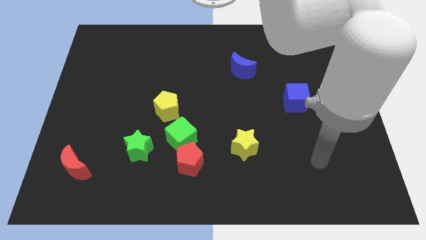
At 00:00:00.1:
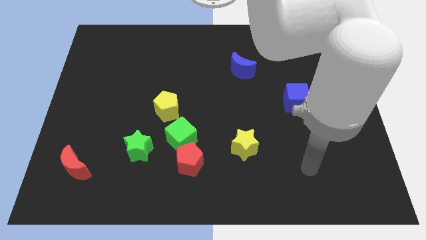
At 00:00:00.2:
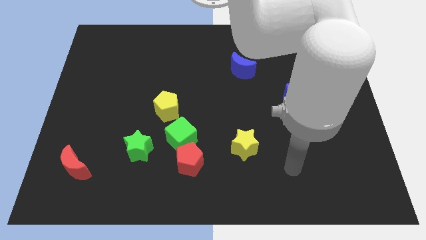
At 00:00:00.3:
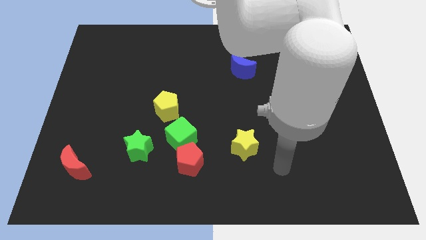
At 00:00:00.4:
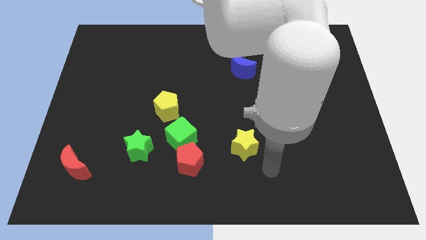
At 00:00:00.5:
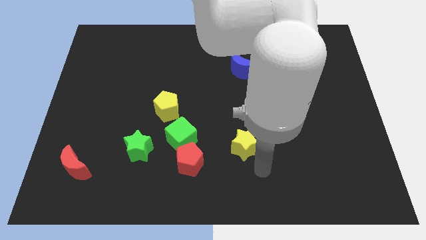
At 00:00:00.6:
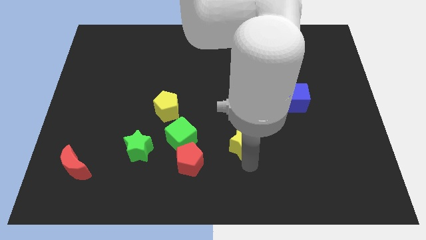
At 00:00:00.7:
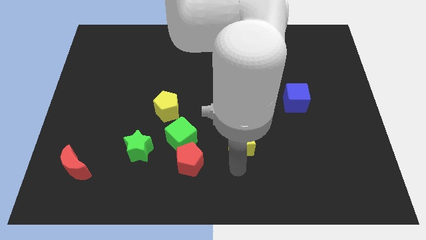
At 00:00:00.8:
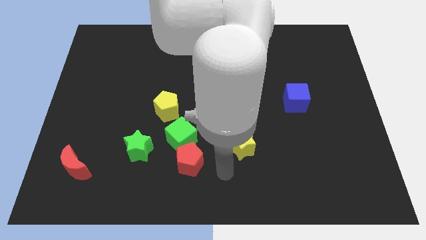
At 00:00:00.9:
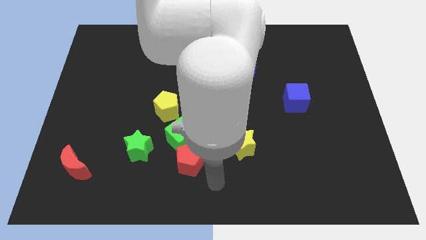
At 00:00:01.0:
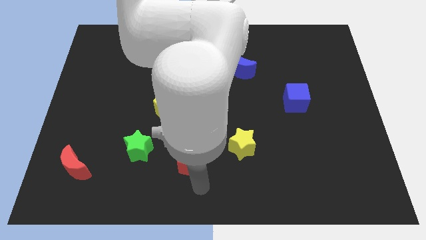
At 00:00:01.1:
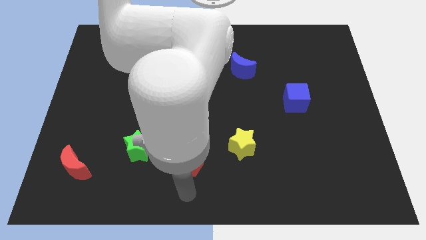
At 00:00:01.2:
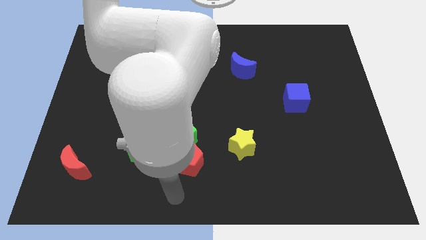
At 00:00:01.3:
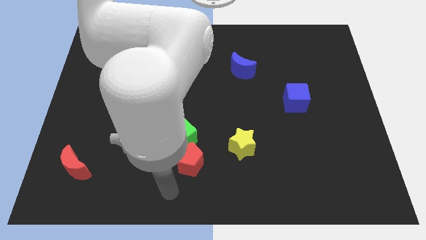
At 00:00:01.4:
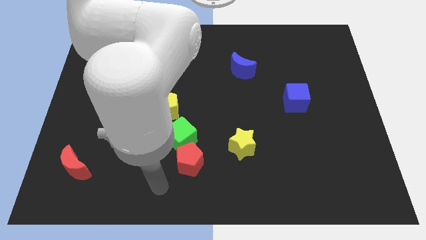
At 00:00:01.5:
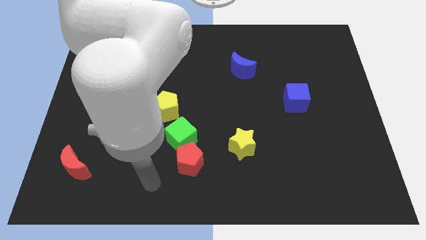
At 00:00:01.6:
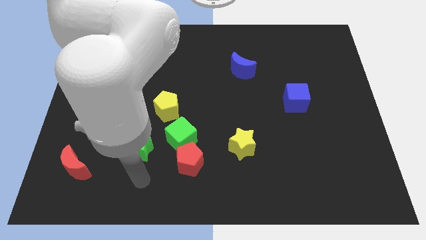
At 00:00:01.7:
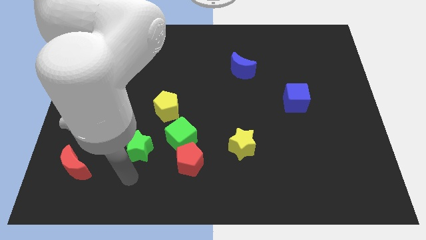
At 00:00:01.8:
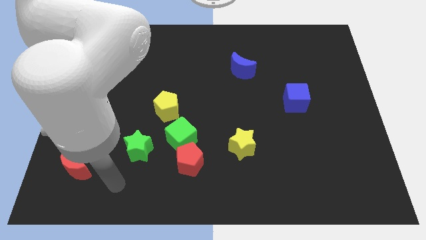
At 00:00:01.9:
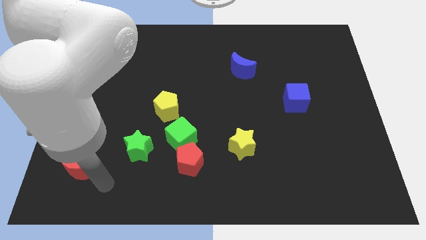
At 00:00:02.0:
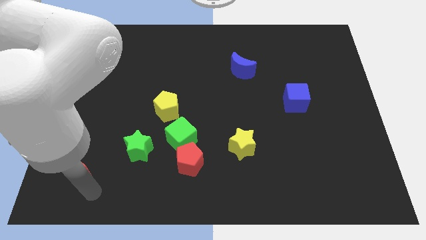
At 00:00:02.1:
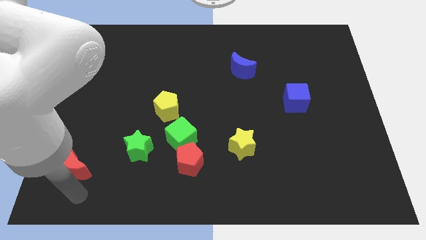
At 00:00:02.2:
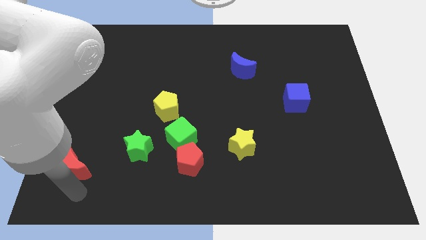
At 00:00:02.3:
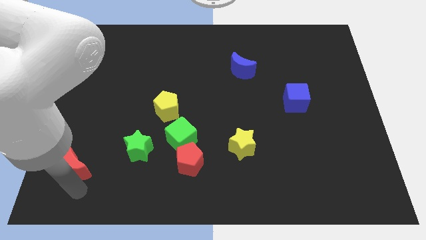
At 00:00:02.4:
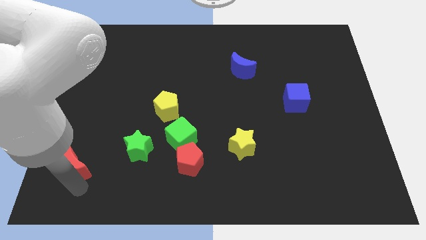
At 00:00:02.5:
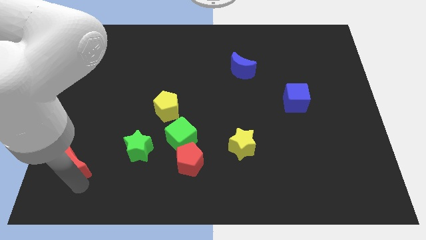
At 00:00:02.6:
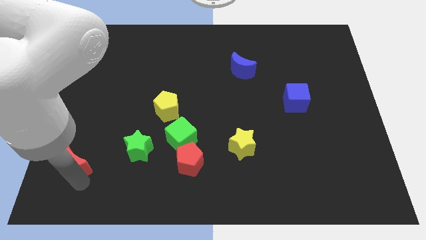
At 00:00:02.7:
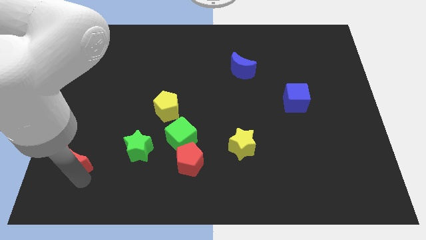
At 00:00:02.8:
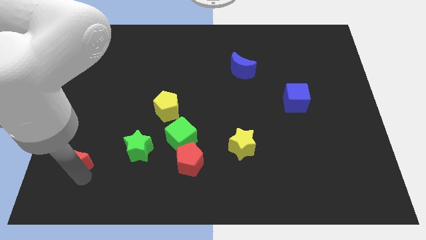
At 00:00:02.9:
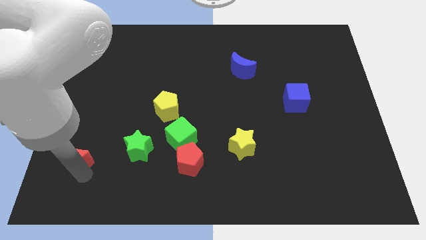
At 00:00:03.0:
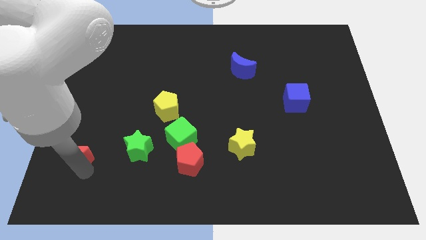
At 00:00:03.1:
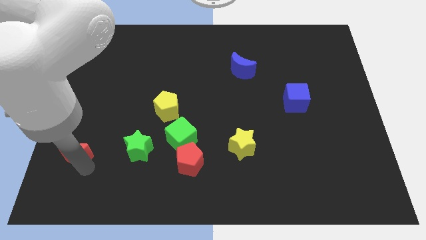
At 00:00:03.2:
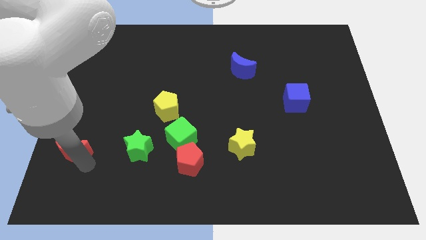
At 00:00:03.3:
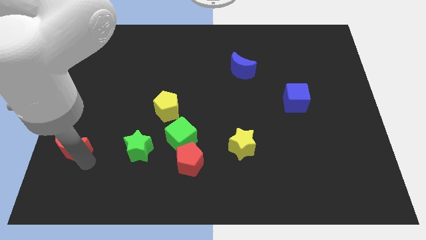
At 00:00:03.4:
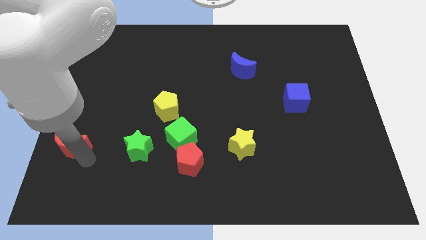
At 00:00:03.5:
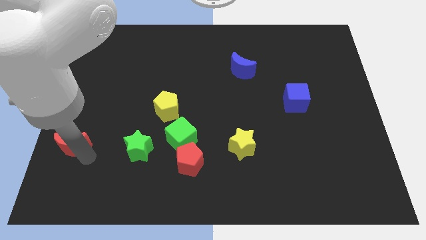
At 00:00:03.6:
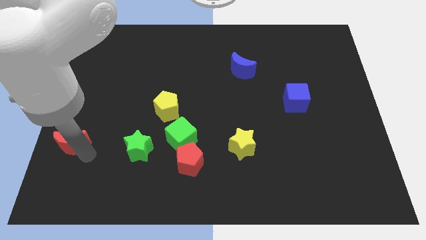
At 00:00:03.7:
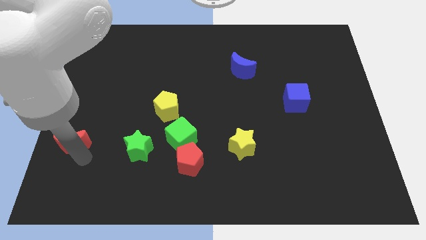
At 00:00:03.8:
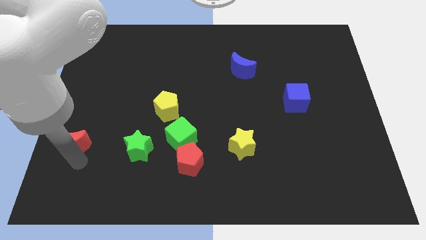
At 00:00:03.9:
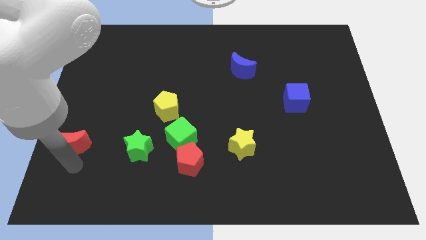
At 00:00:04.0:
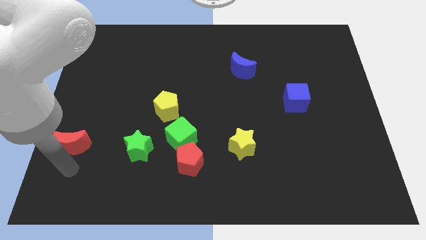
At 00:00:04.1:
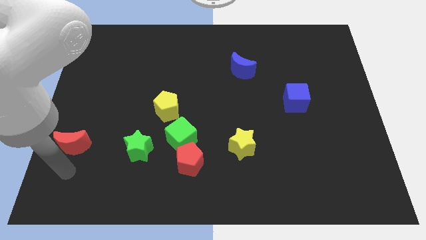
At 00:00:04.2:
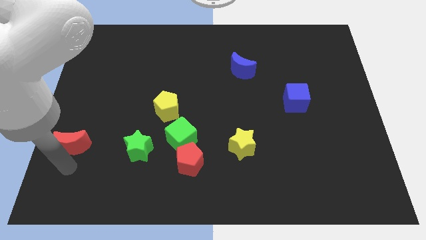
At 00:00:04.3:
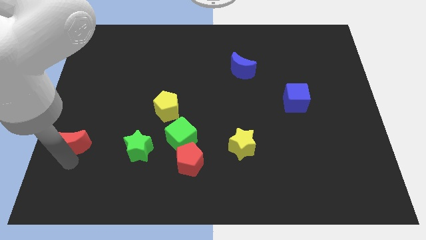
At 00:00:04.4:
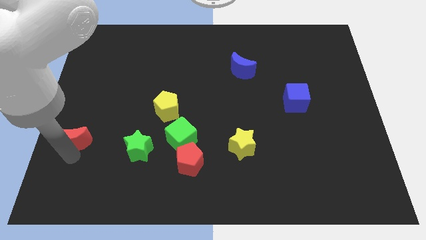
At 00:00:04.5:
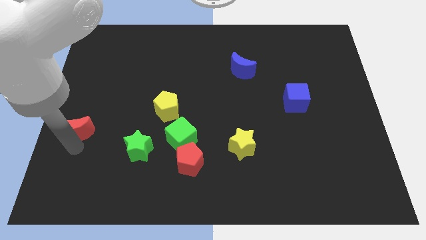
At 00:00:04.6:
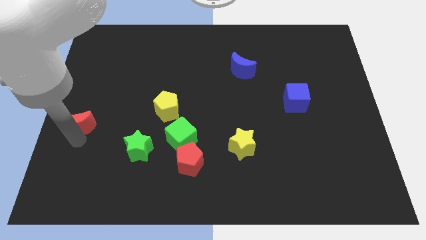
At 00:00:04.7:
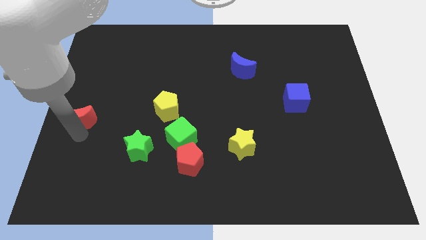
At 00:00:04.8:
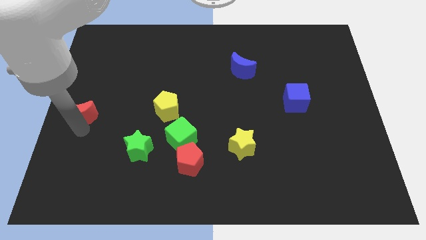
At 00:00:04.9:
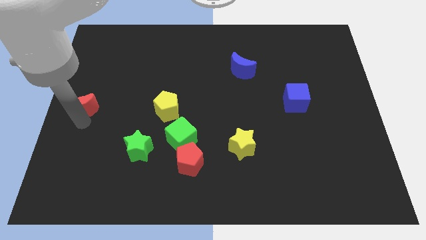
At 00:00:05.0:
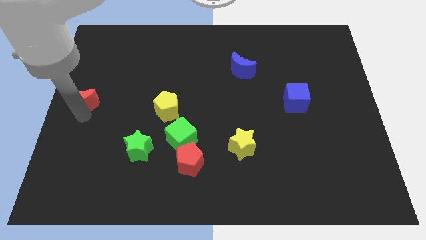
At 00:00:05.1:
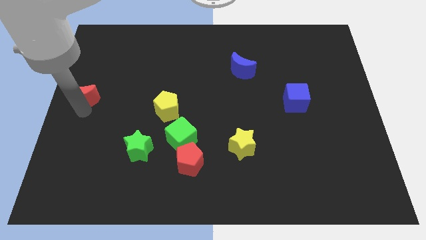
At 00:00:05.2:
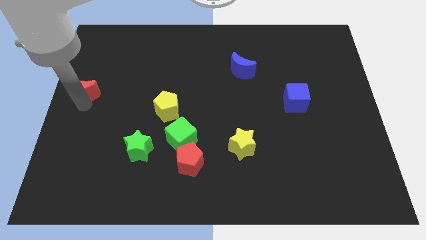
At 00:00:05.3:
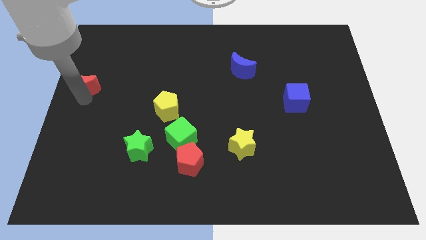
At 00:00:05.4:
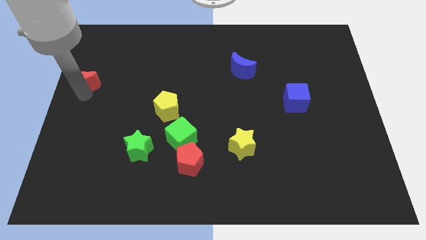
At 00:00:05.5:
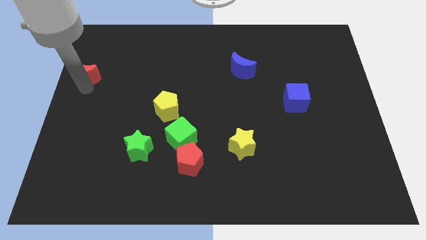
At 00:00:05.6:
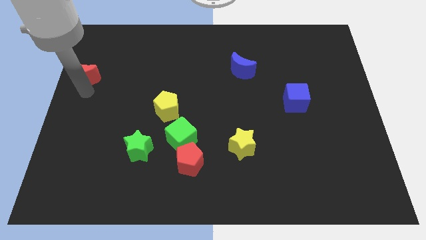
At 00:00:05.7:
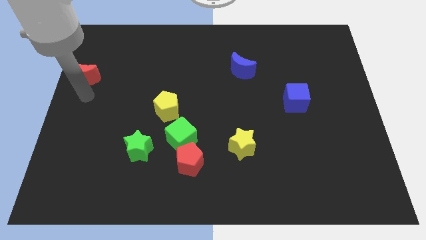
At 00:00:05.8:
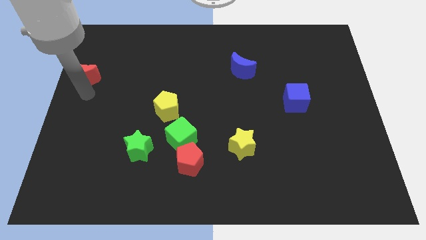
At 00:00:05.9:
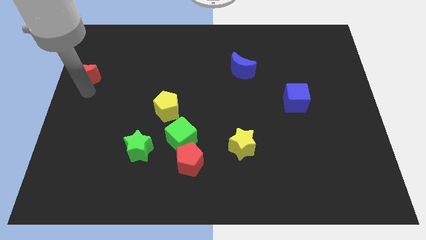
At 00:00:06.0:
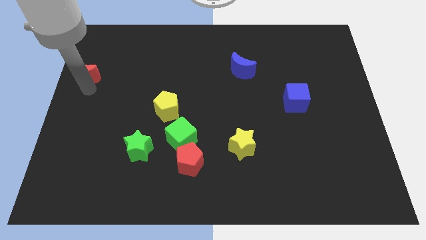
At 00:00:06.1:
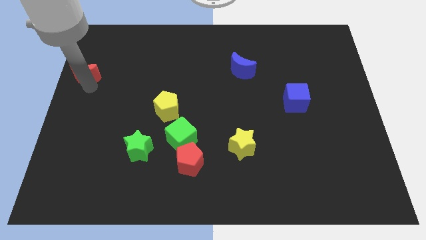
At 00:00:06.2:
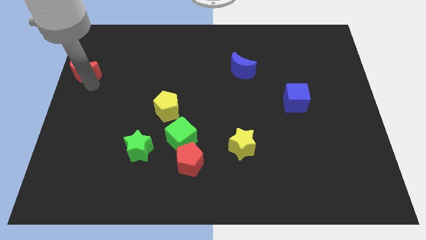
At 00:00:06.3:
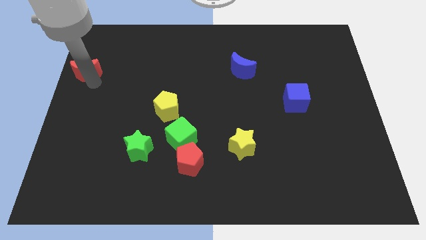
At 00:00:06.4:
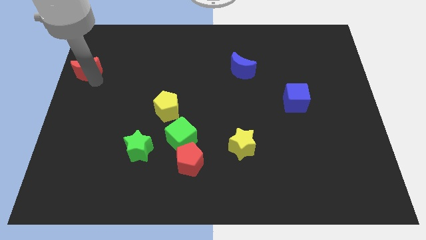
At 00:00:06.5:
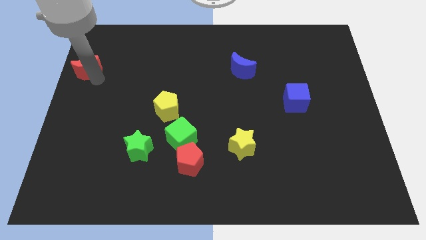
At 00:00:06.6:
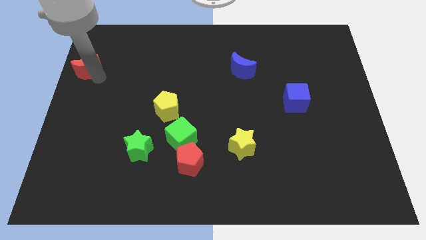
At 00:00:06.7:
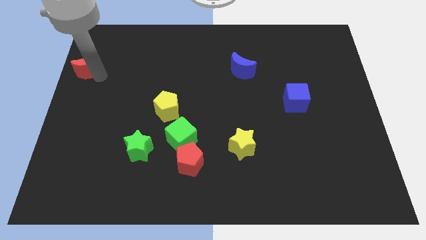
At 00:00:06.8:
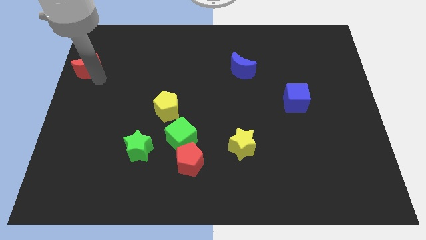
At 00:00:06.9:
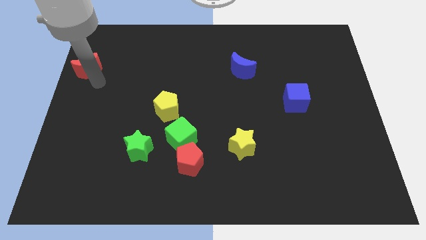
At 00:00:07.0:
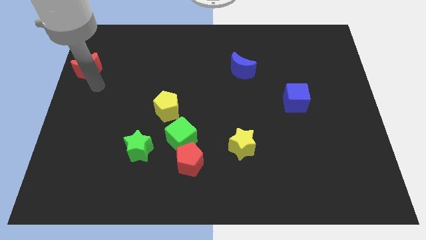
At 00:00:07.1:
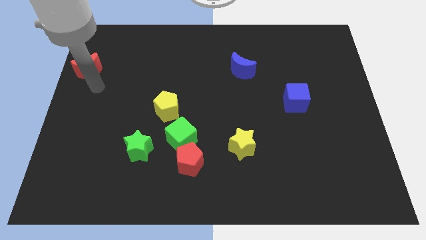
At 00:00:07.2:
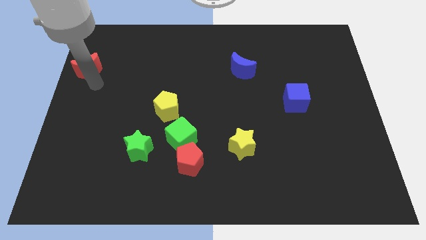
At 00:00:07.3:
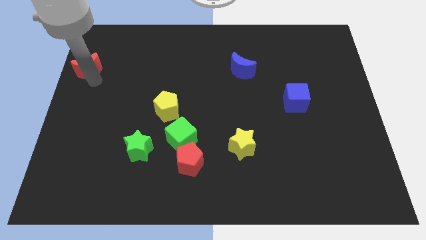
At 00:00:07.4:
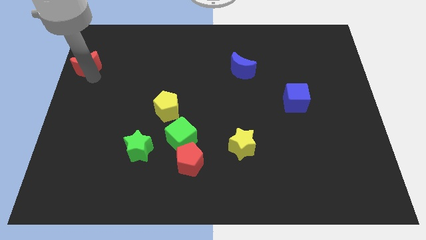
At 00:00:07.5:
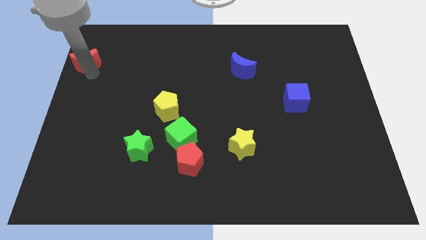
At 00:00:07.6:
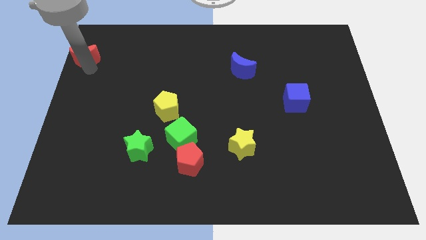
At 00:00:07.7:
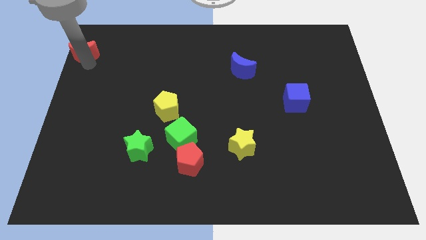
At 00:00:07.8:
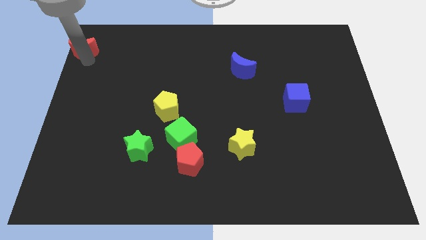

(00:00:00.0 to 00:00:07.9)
put the red moon to the top left of the board
